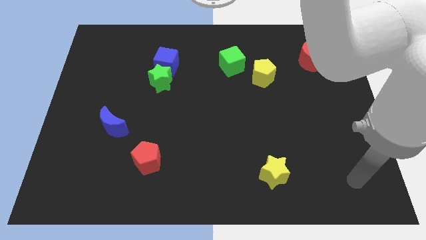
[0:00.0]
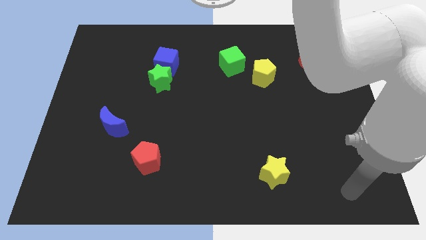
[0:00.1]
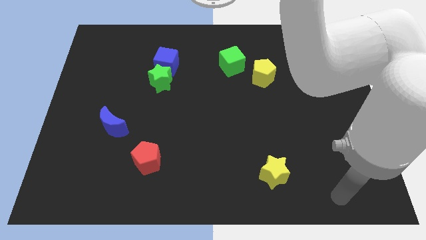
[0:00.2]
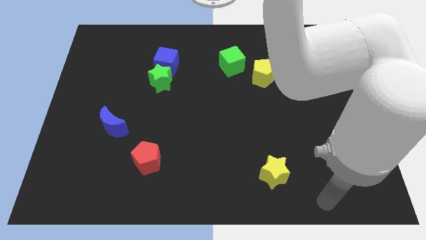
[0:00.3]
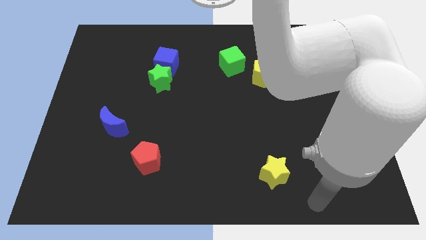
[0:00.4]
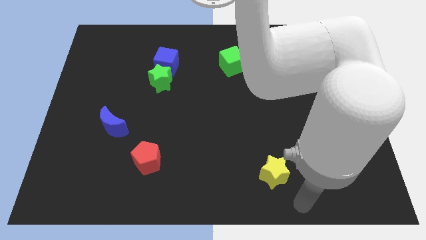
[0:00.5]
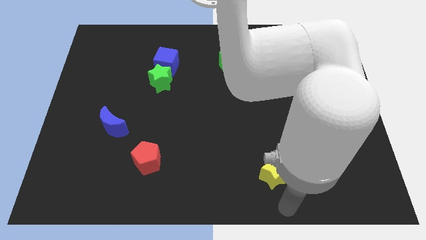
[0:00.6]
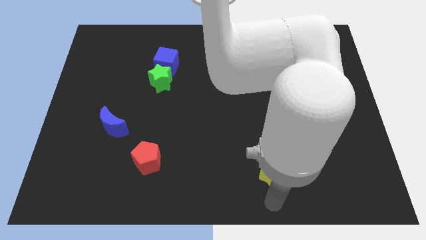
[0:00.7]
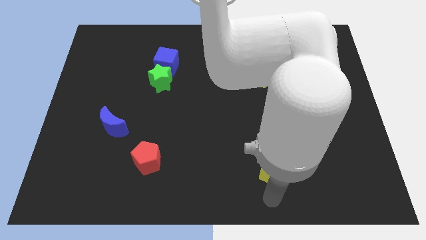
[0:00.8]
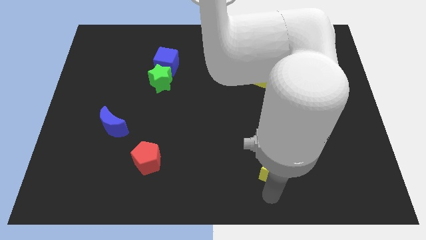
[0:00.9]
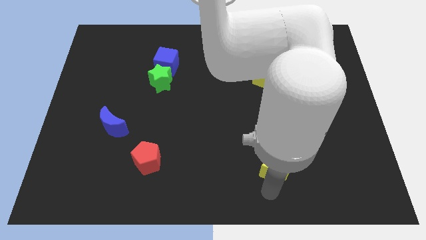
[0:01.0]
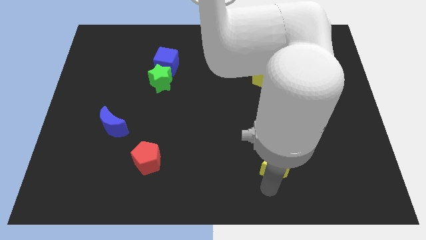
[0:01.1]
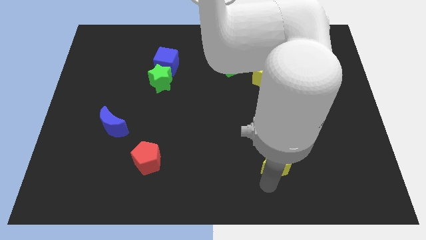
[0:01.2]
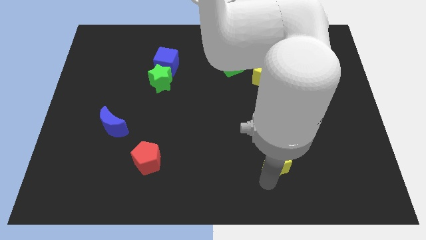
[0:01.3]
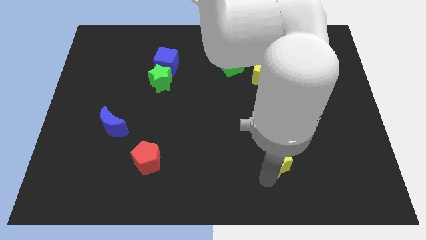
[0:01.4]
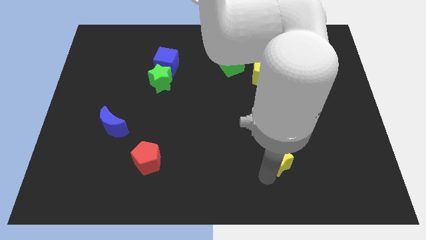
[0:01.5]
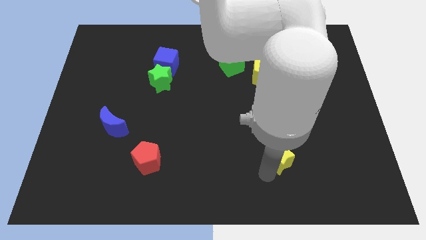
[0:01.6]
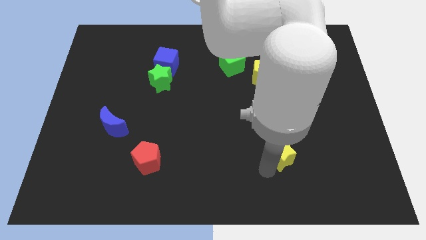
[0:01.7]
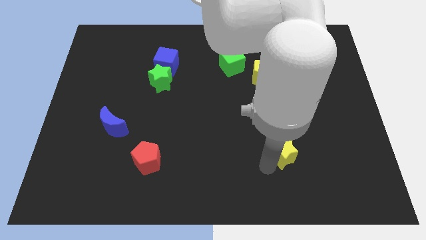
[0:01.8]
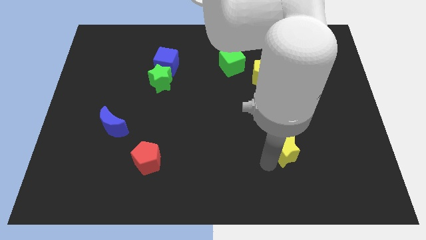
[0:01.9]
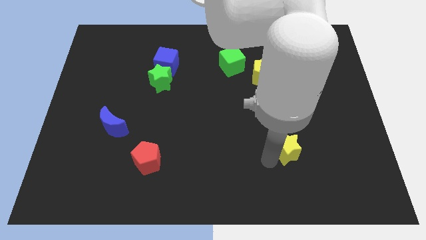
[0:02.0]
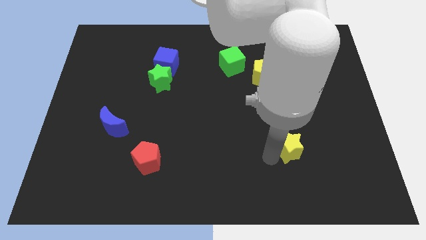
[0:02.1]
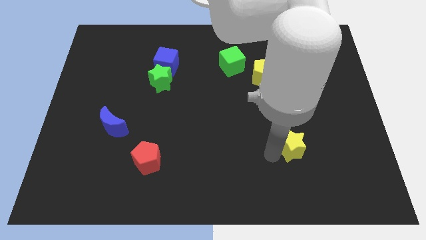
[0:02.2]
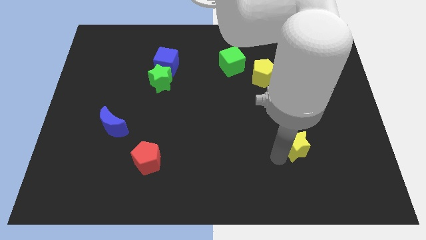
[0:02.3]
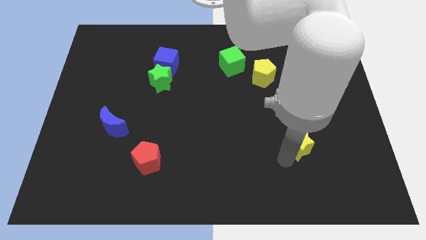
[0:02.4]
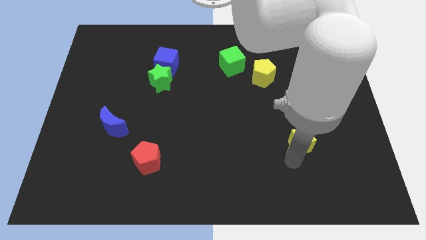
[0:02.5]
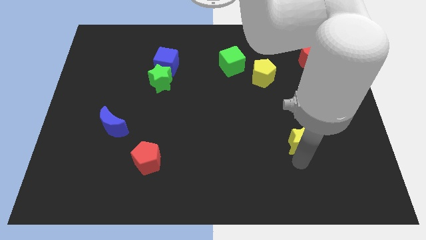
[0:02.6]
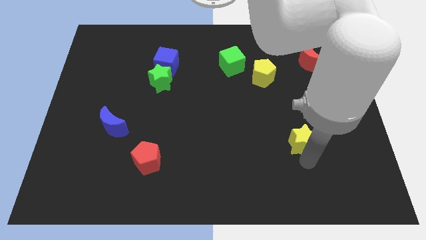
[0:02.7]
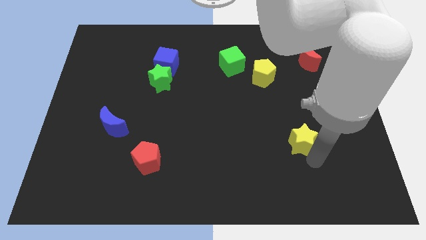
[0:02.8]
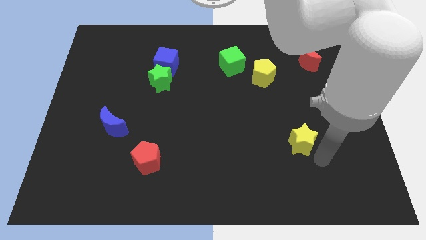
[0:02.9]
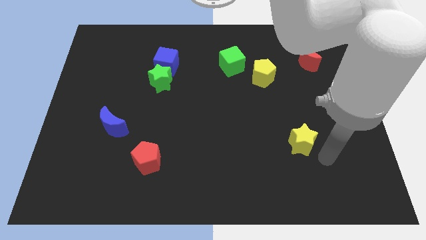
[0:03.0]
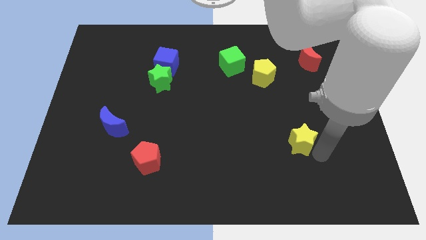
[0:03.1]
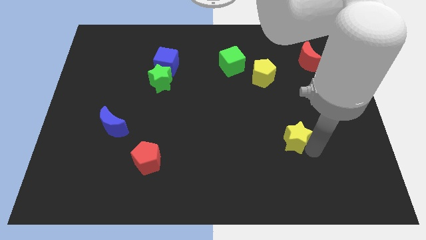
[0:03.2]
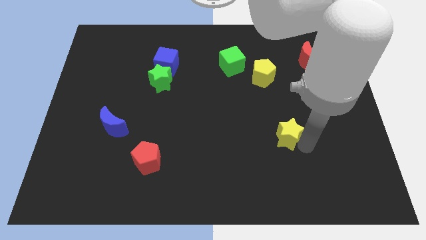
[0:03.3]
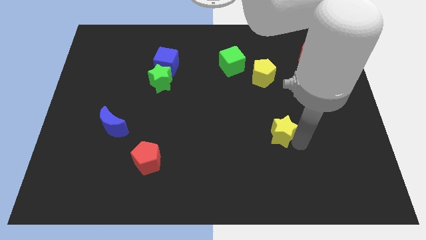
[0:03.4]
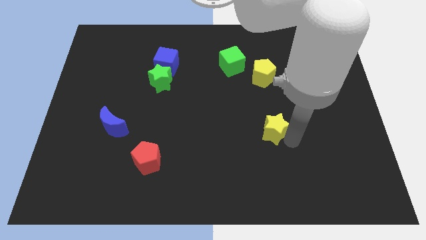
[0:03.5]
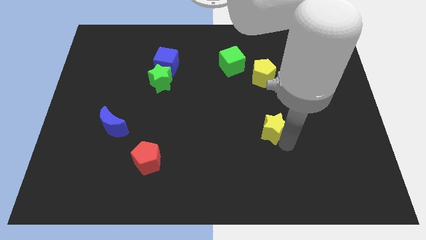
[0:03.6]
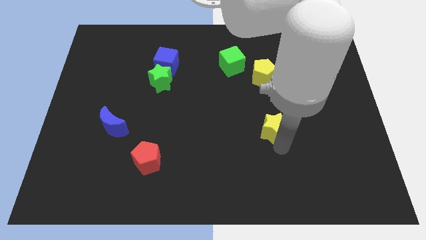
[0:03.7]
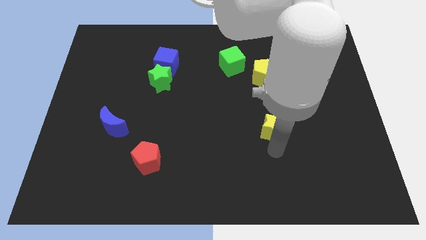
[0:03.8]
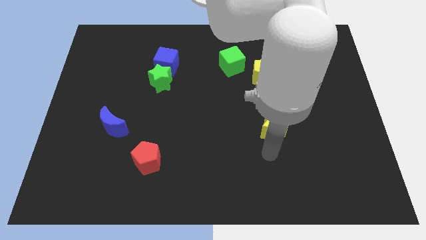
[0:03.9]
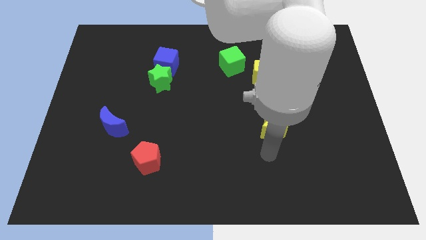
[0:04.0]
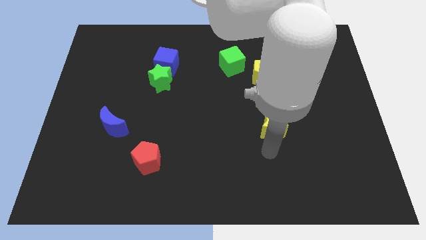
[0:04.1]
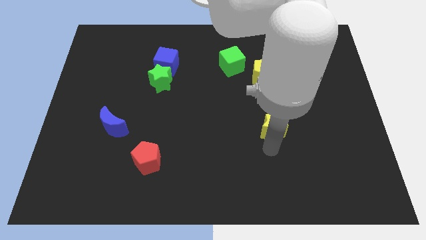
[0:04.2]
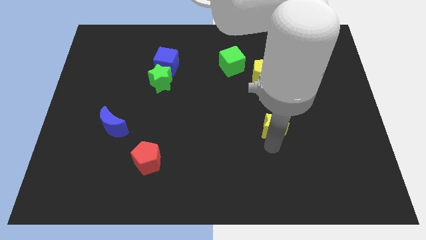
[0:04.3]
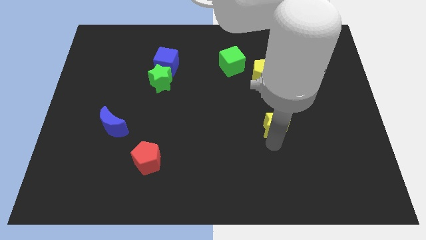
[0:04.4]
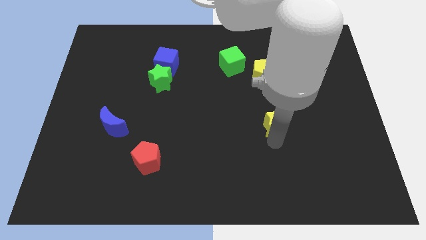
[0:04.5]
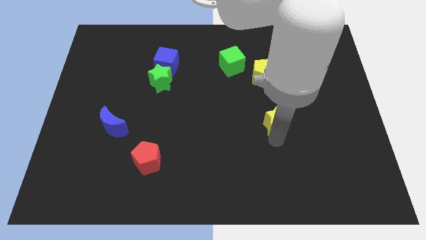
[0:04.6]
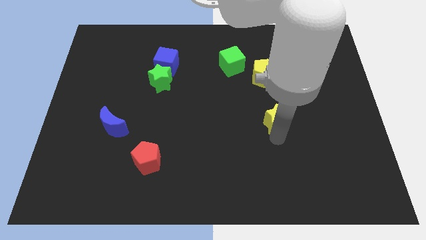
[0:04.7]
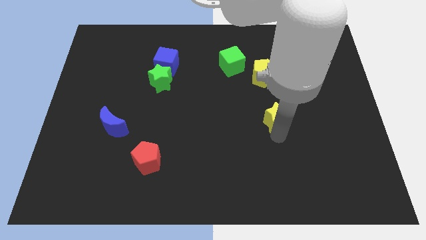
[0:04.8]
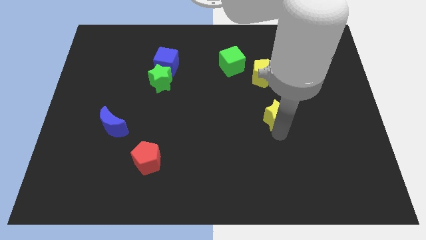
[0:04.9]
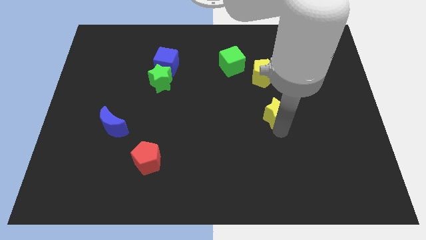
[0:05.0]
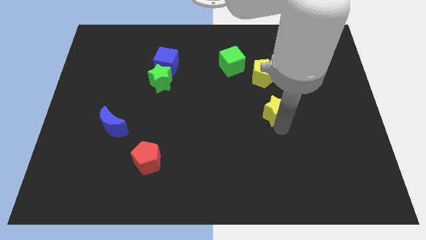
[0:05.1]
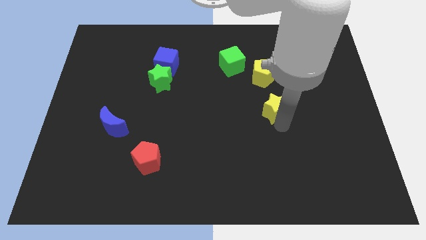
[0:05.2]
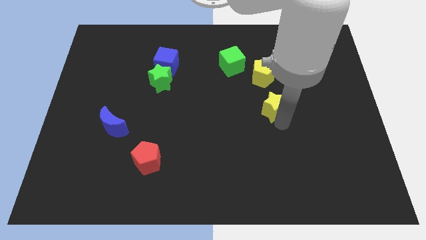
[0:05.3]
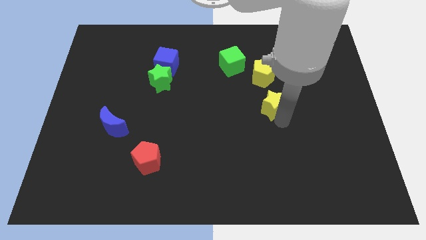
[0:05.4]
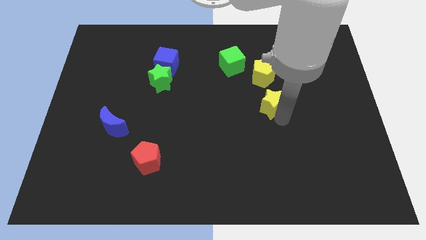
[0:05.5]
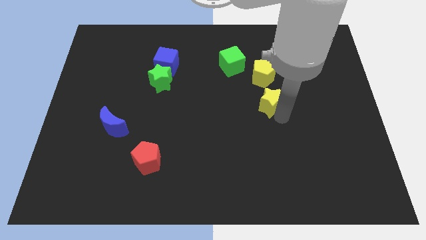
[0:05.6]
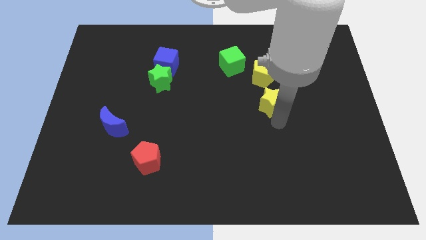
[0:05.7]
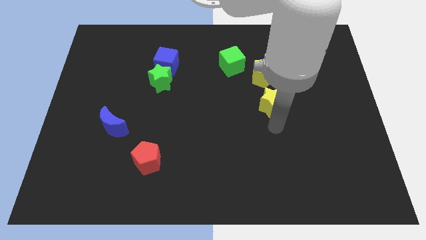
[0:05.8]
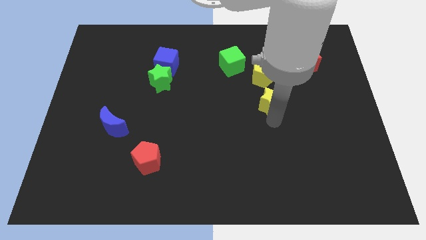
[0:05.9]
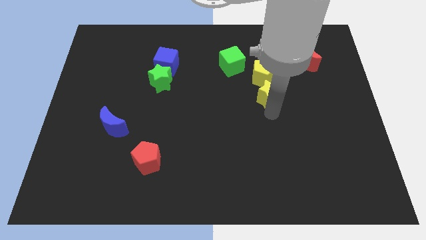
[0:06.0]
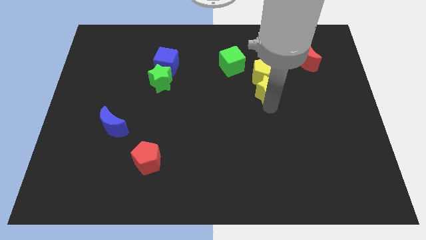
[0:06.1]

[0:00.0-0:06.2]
push the yellow star towards the yellow pentagon

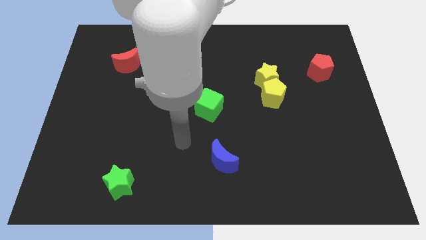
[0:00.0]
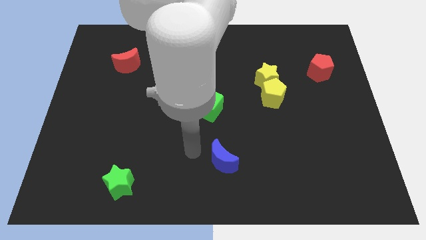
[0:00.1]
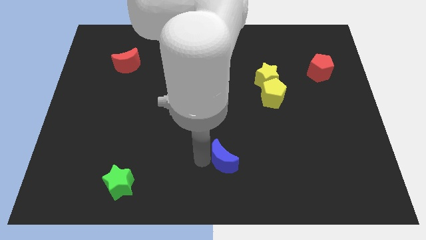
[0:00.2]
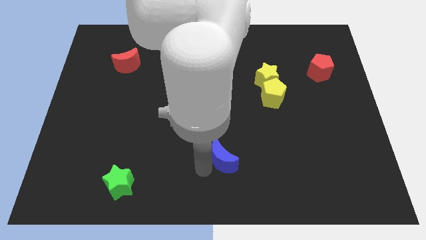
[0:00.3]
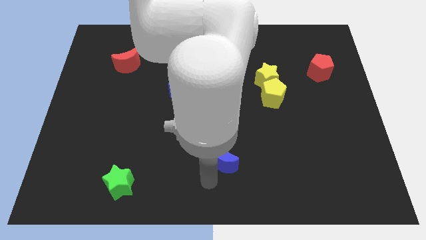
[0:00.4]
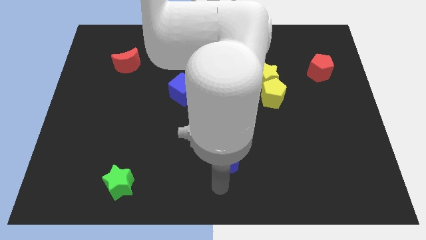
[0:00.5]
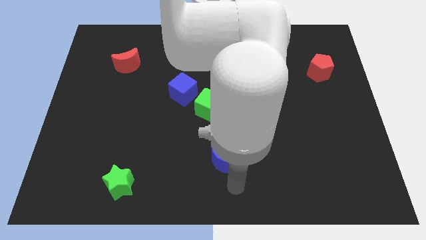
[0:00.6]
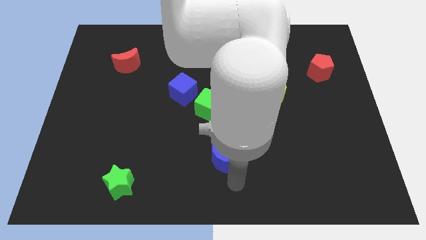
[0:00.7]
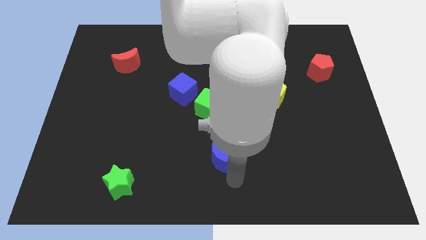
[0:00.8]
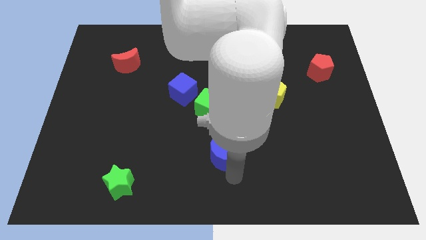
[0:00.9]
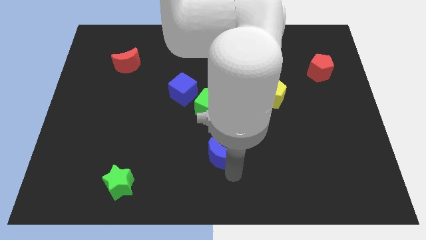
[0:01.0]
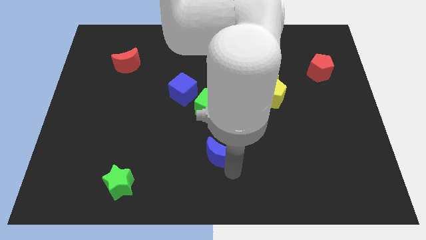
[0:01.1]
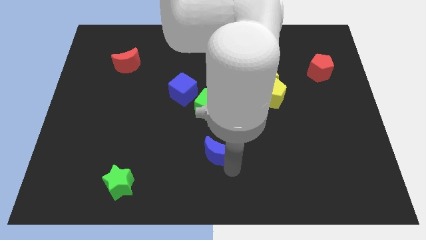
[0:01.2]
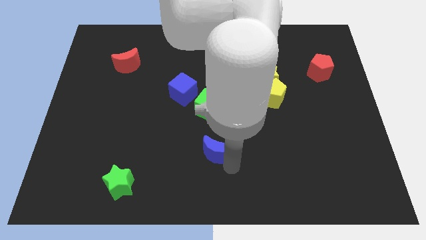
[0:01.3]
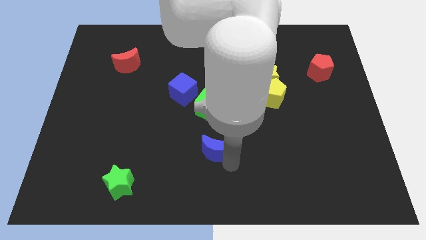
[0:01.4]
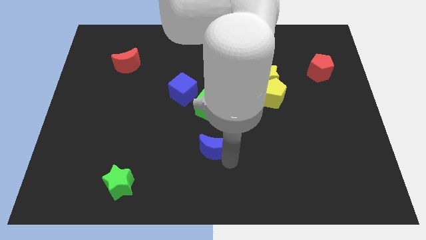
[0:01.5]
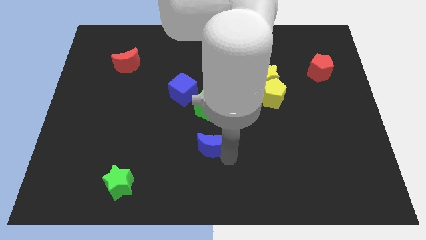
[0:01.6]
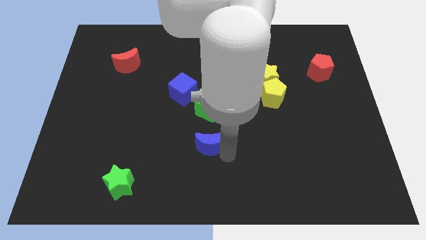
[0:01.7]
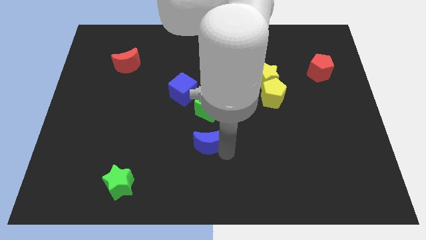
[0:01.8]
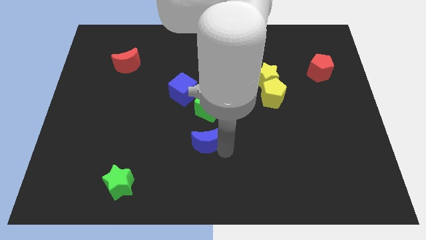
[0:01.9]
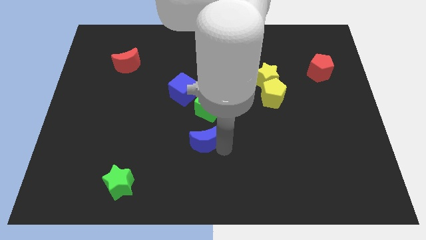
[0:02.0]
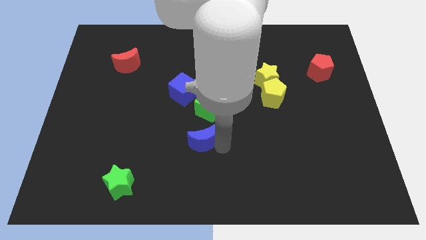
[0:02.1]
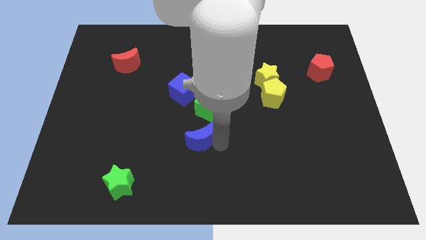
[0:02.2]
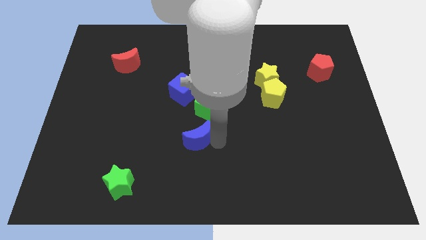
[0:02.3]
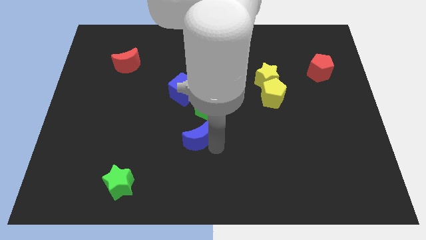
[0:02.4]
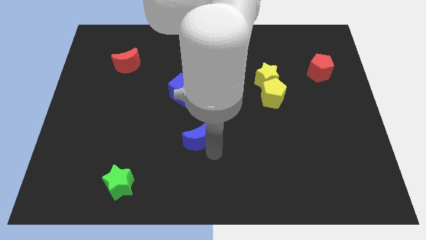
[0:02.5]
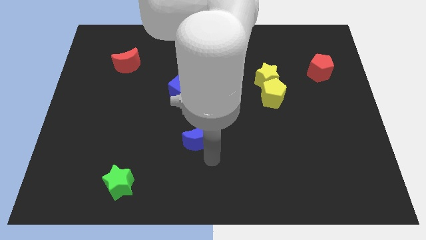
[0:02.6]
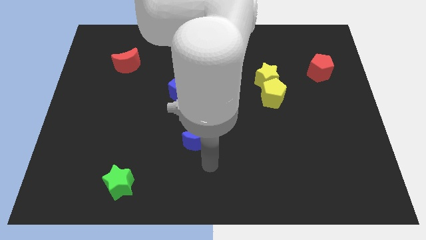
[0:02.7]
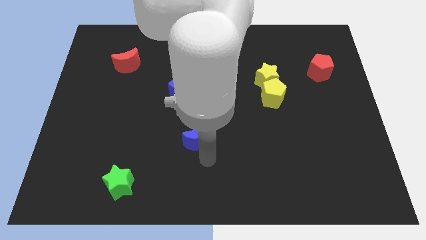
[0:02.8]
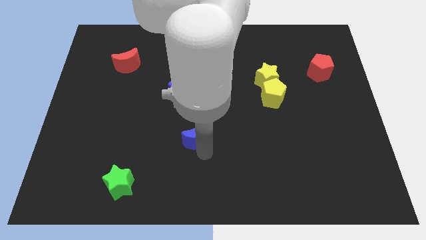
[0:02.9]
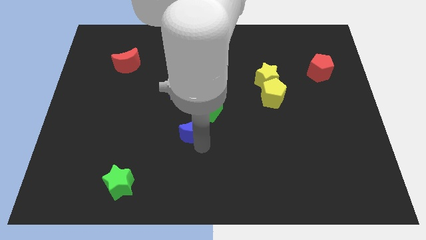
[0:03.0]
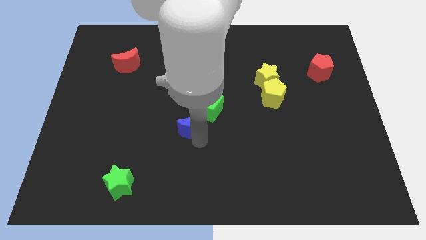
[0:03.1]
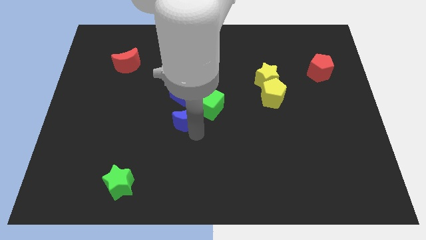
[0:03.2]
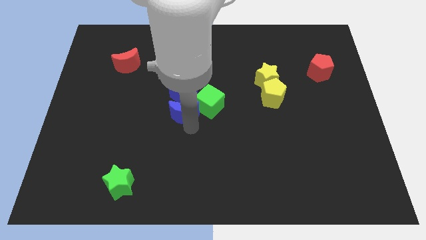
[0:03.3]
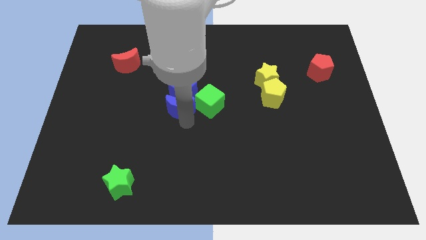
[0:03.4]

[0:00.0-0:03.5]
slide the blue moon to the blue cube
